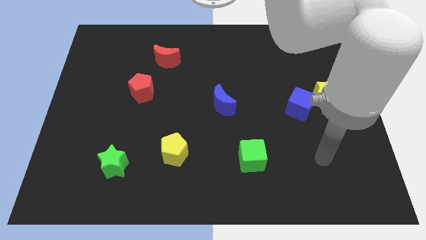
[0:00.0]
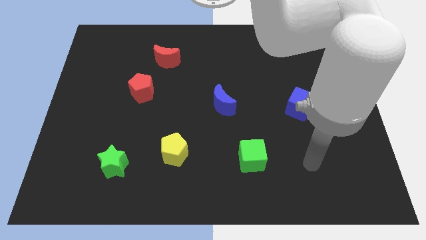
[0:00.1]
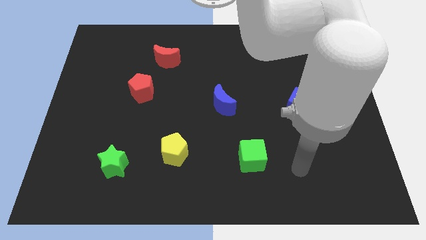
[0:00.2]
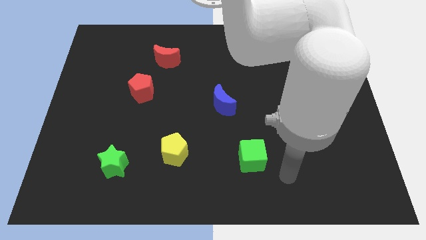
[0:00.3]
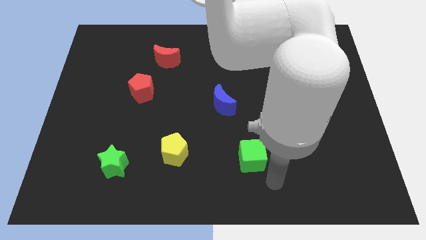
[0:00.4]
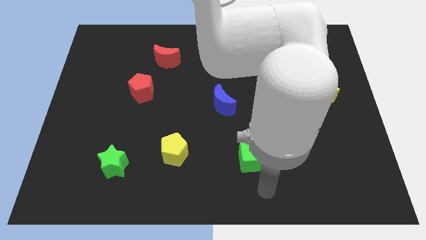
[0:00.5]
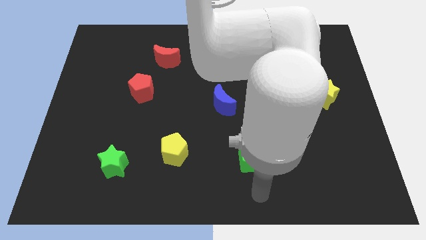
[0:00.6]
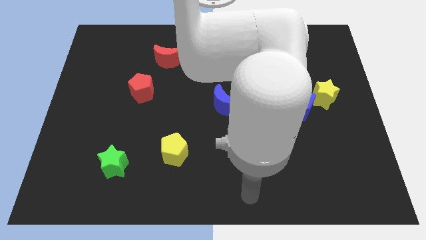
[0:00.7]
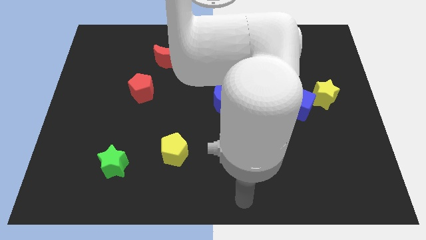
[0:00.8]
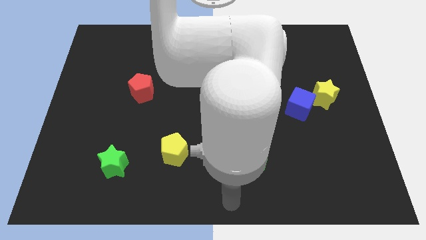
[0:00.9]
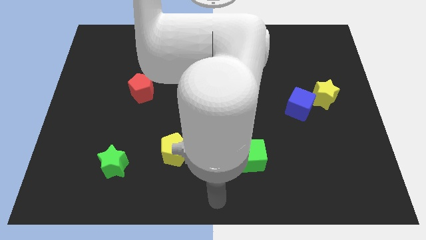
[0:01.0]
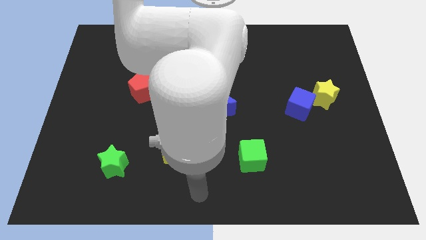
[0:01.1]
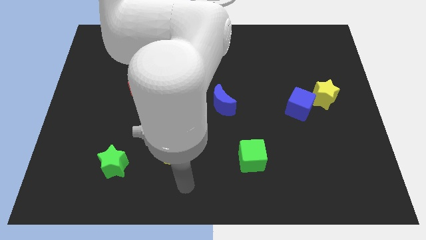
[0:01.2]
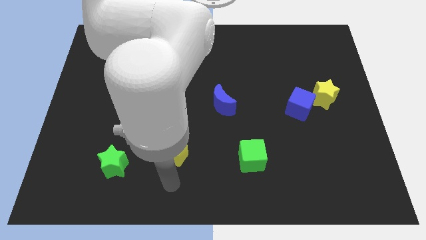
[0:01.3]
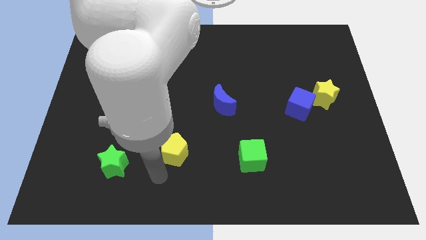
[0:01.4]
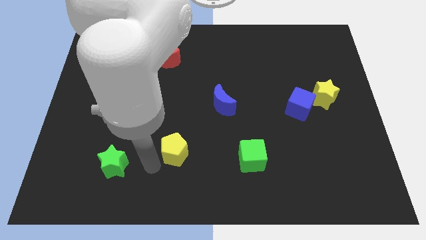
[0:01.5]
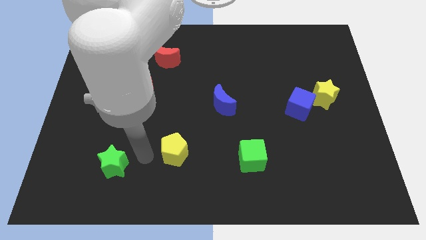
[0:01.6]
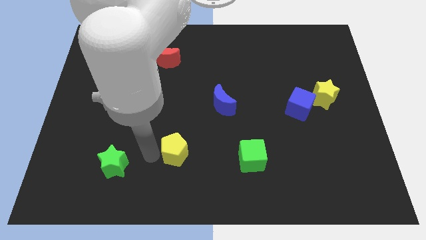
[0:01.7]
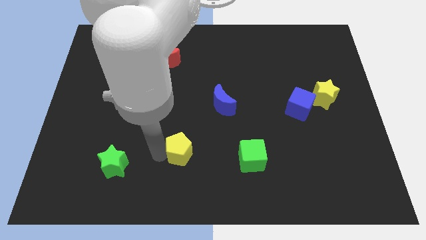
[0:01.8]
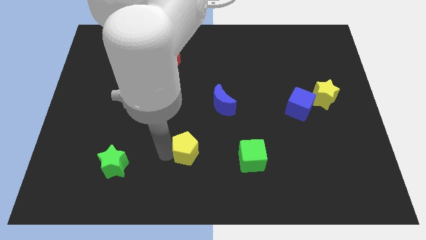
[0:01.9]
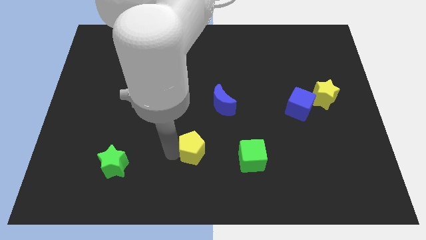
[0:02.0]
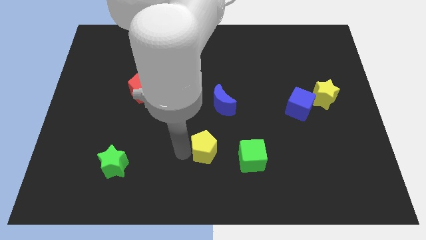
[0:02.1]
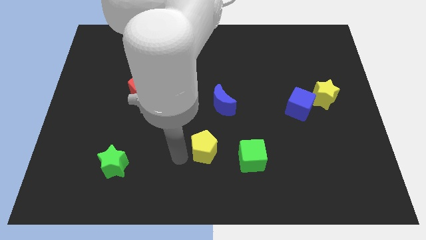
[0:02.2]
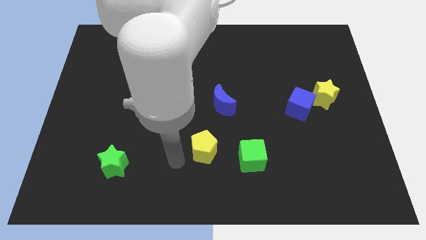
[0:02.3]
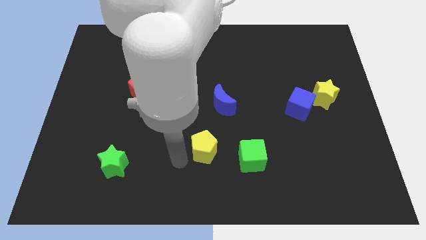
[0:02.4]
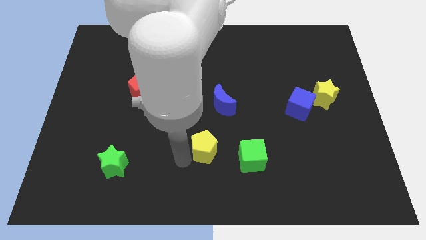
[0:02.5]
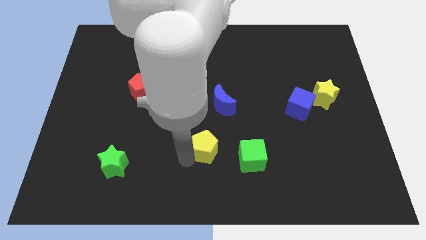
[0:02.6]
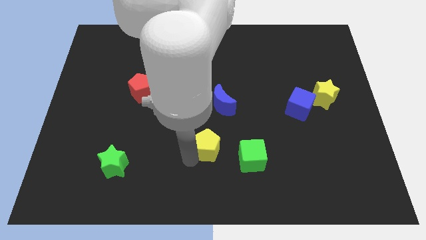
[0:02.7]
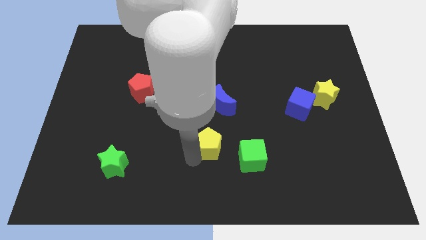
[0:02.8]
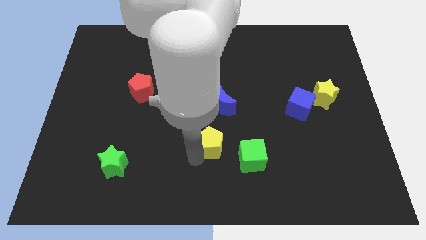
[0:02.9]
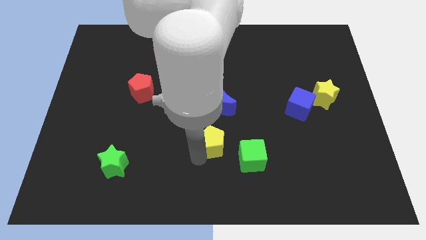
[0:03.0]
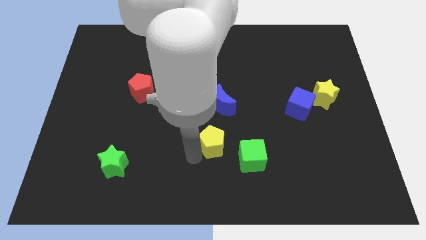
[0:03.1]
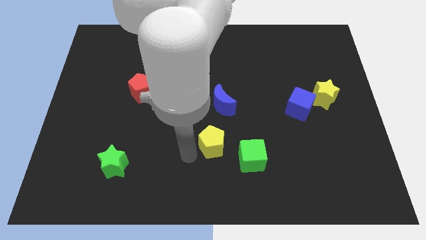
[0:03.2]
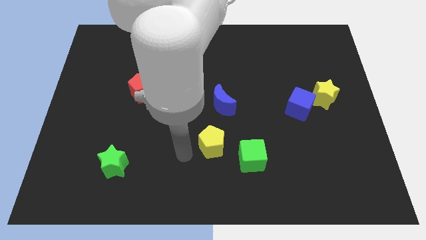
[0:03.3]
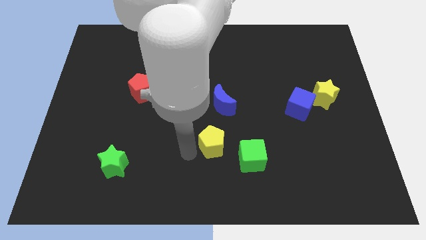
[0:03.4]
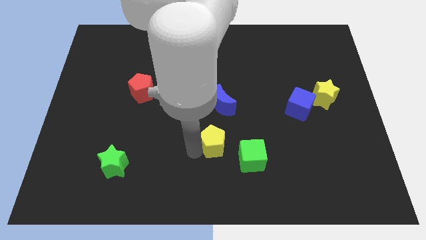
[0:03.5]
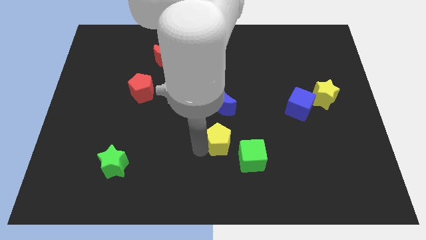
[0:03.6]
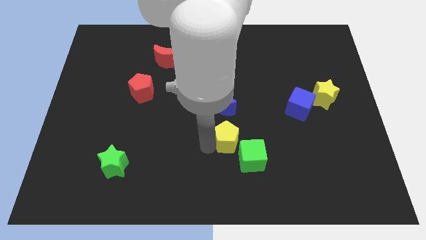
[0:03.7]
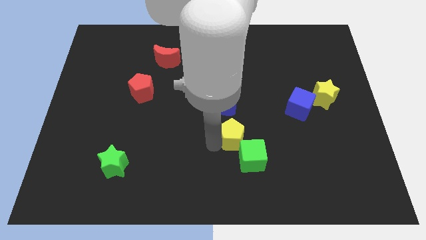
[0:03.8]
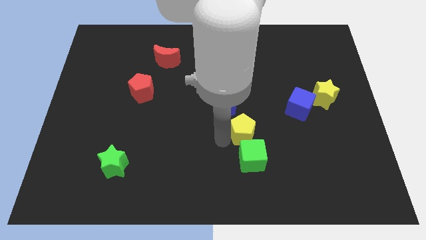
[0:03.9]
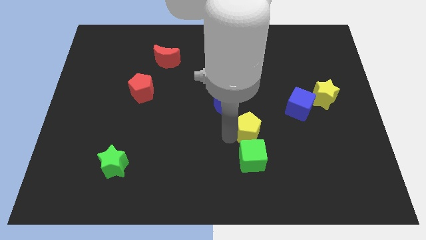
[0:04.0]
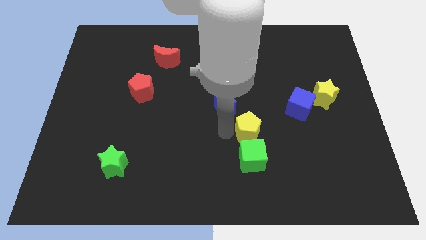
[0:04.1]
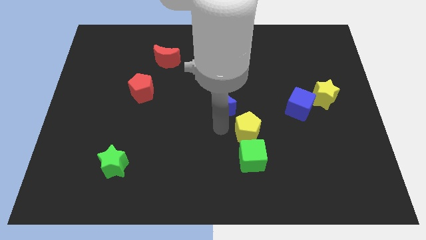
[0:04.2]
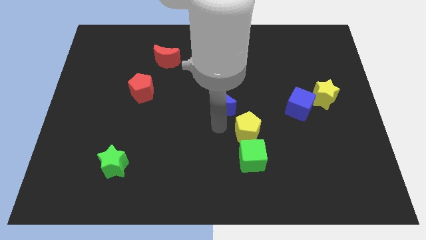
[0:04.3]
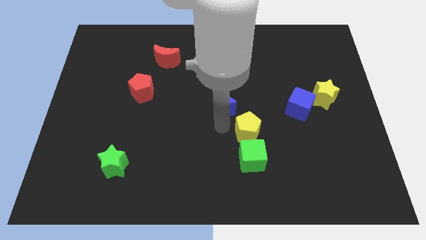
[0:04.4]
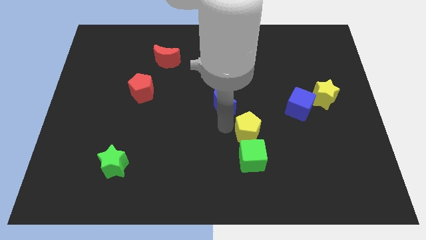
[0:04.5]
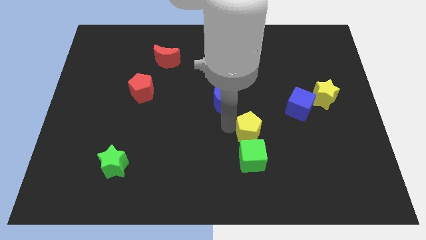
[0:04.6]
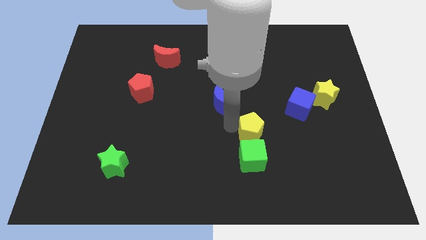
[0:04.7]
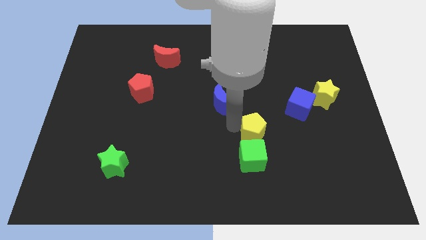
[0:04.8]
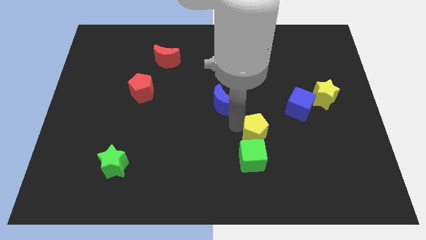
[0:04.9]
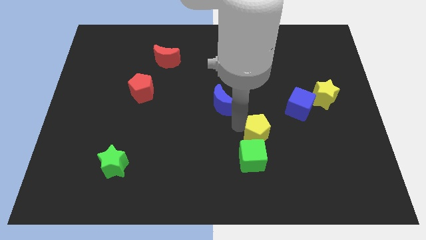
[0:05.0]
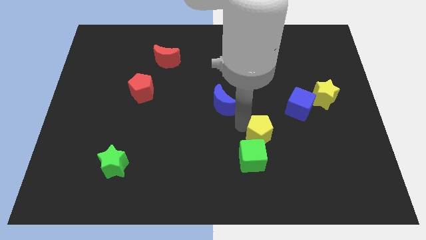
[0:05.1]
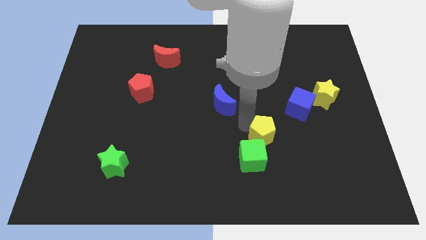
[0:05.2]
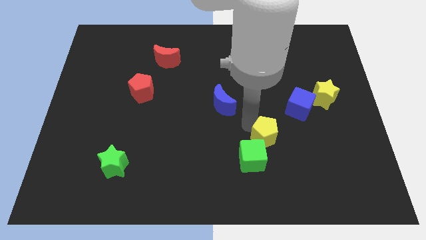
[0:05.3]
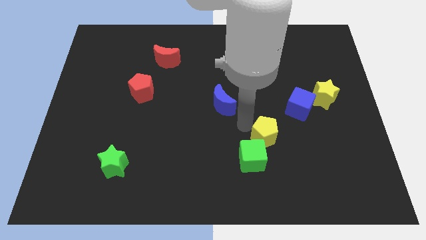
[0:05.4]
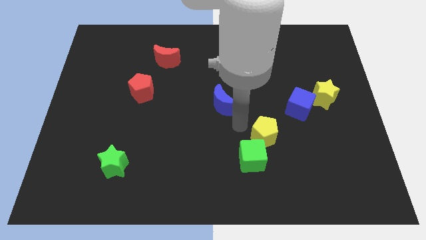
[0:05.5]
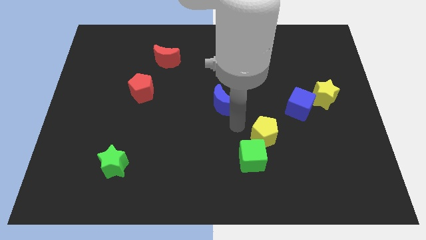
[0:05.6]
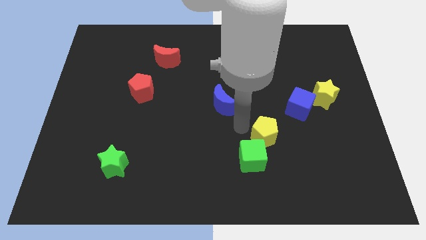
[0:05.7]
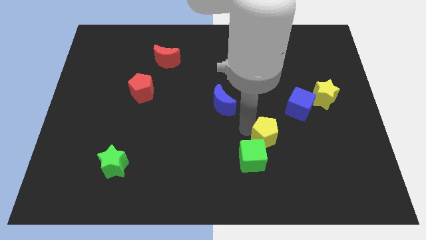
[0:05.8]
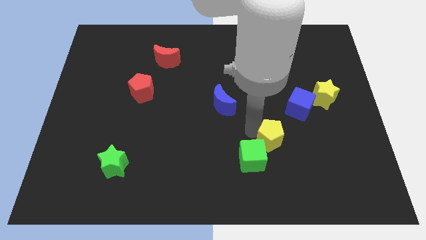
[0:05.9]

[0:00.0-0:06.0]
move the yellow pentagon to the right

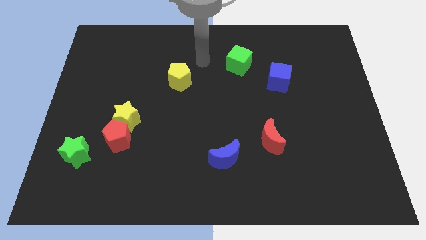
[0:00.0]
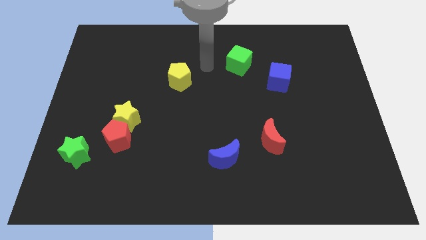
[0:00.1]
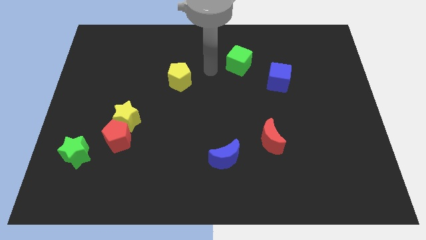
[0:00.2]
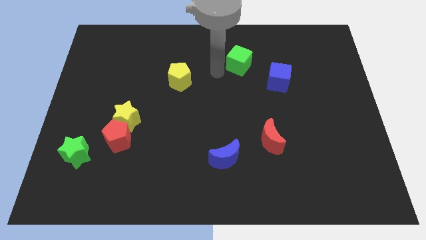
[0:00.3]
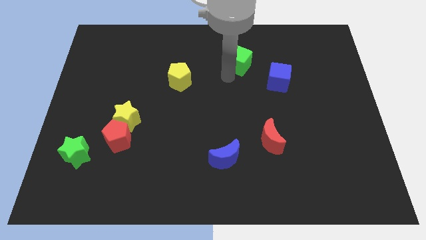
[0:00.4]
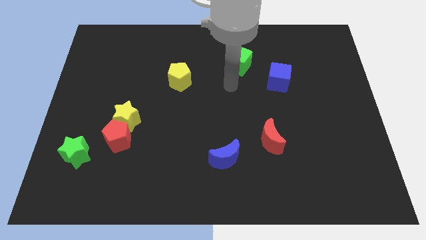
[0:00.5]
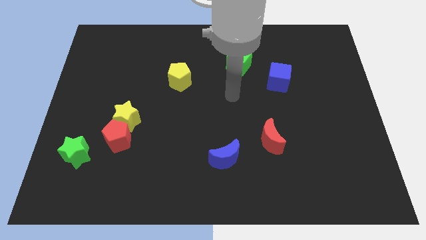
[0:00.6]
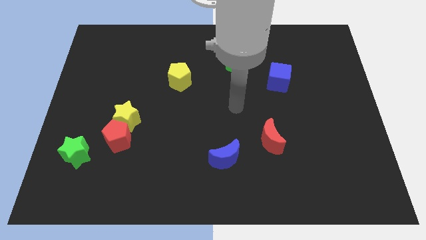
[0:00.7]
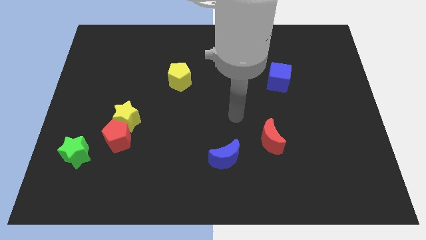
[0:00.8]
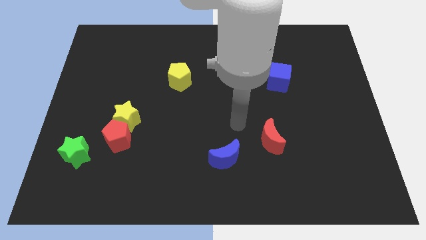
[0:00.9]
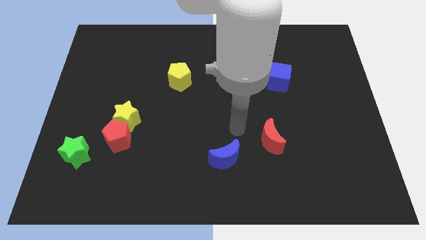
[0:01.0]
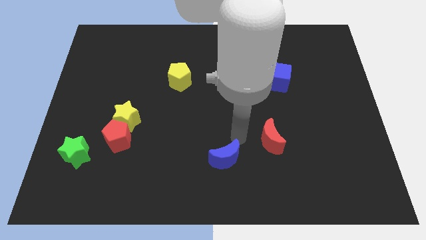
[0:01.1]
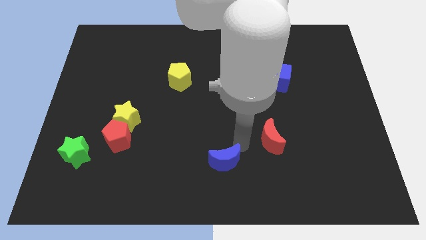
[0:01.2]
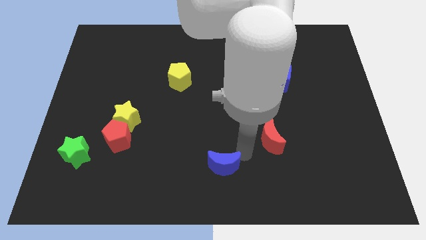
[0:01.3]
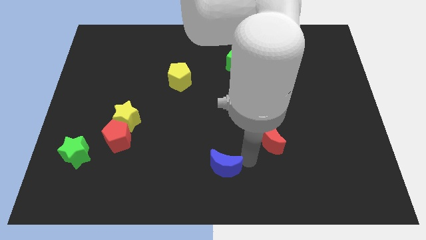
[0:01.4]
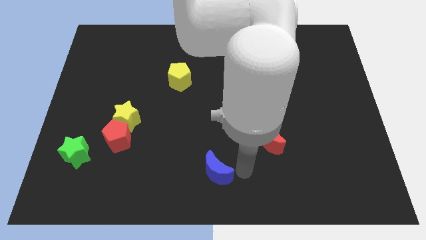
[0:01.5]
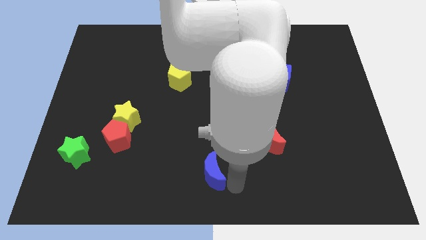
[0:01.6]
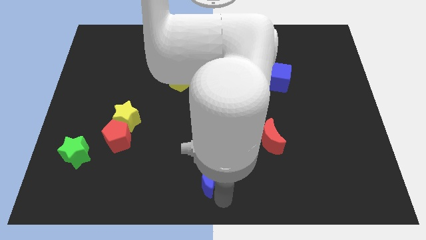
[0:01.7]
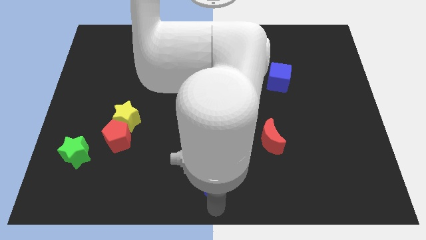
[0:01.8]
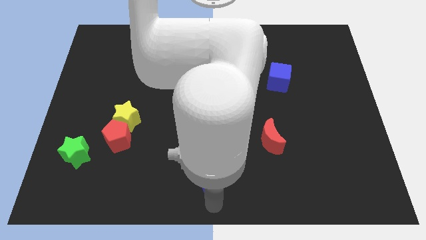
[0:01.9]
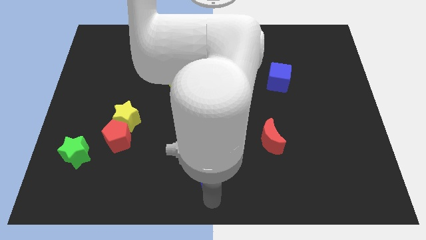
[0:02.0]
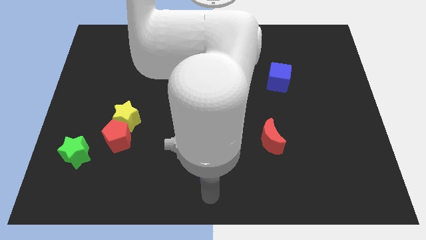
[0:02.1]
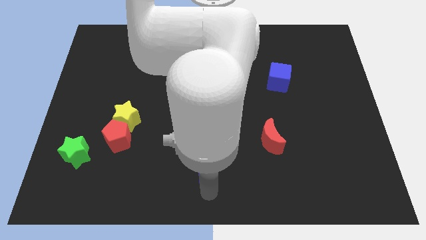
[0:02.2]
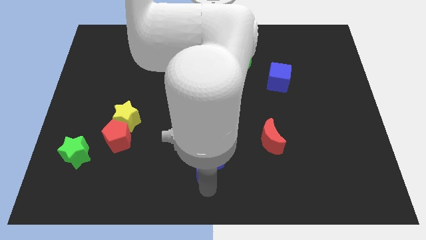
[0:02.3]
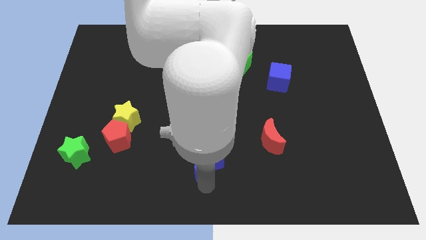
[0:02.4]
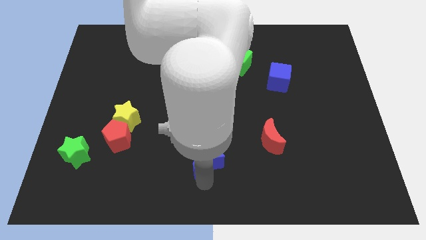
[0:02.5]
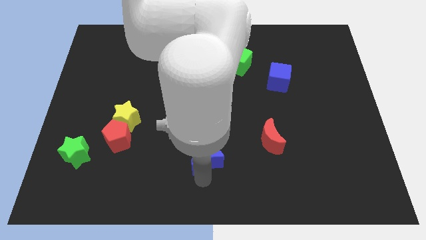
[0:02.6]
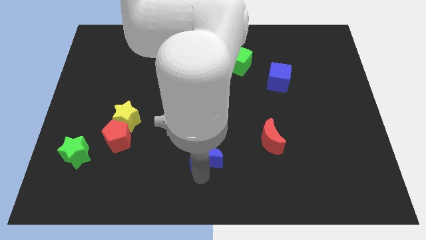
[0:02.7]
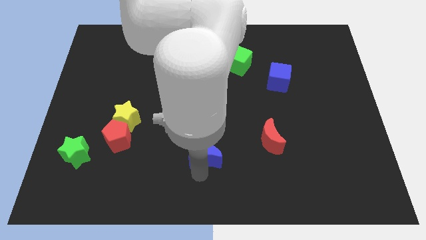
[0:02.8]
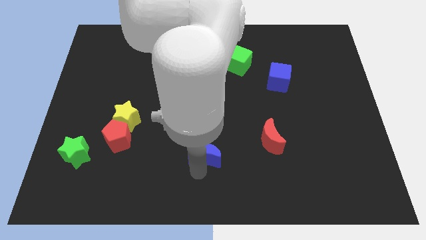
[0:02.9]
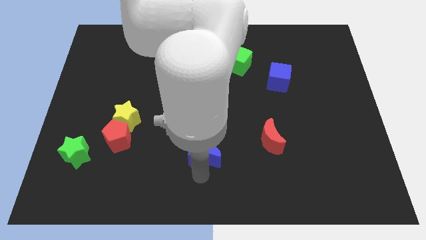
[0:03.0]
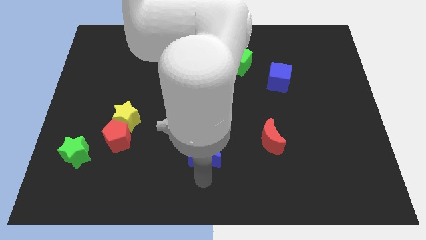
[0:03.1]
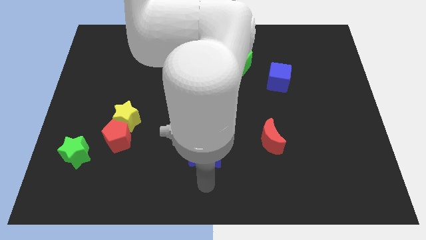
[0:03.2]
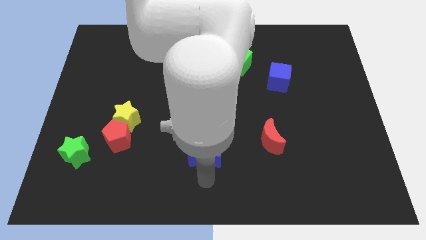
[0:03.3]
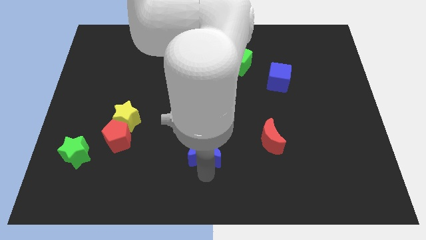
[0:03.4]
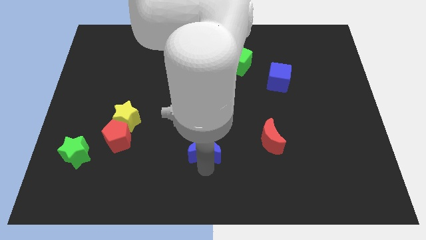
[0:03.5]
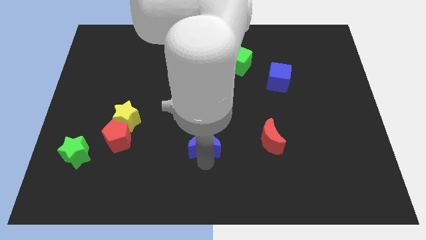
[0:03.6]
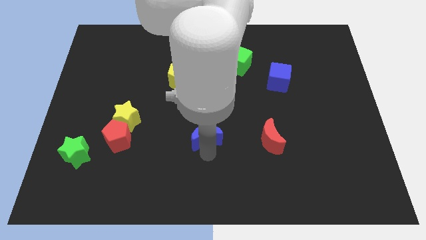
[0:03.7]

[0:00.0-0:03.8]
push the blue moon diagonally up and to the left a little bit
